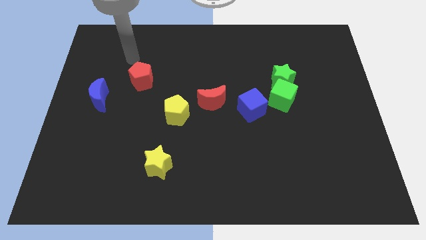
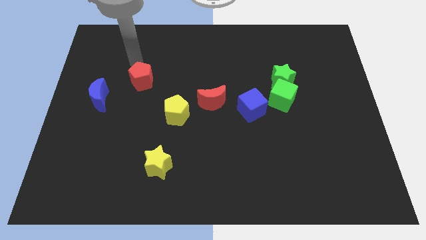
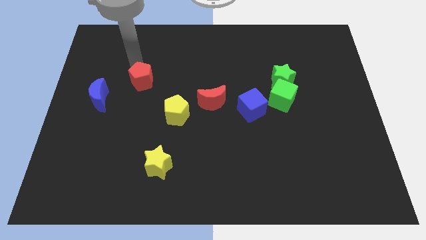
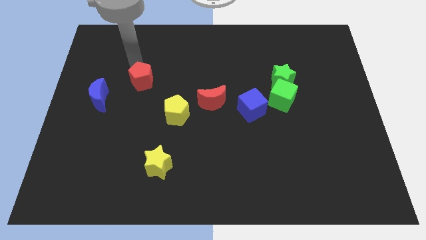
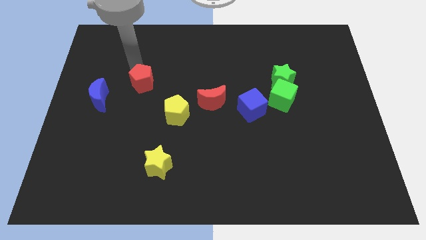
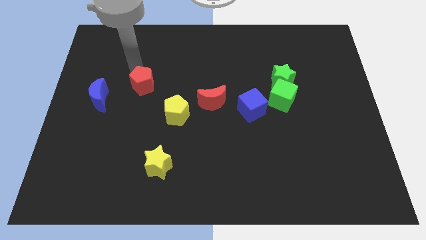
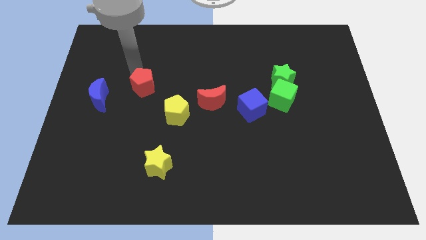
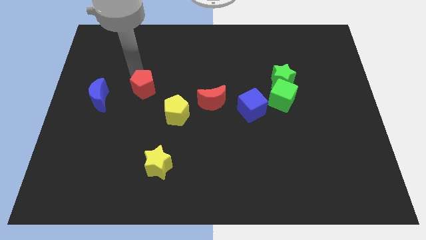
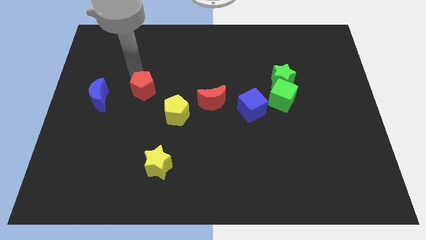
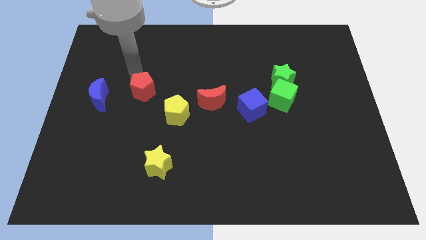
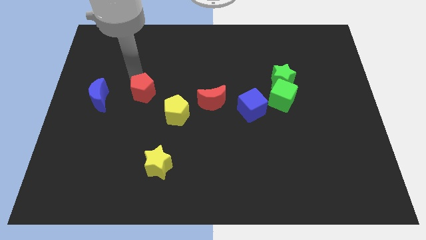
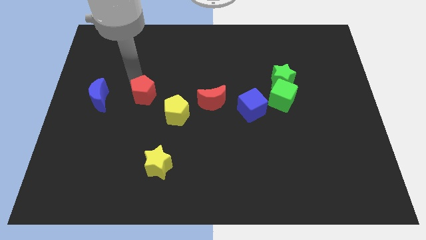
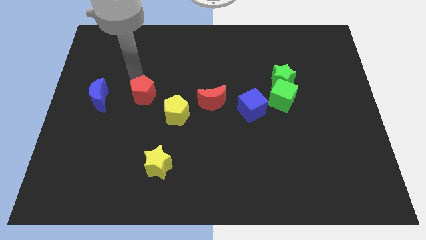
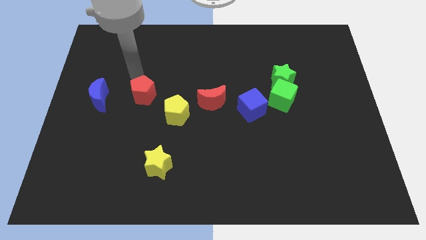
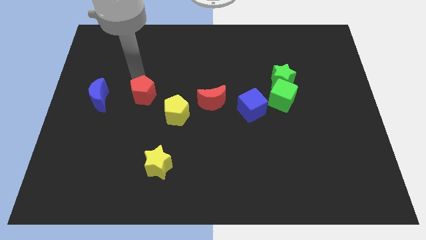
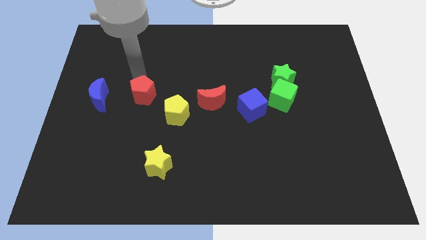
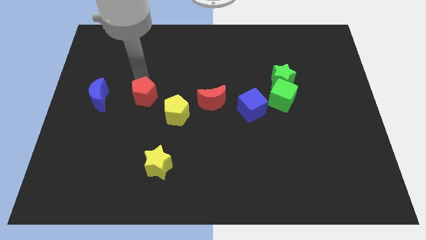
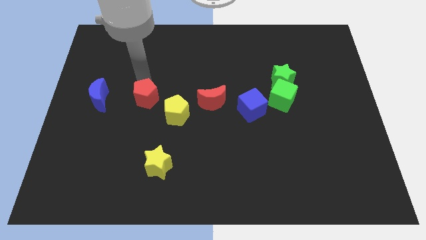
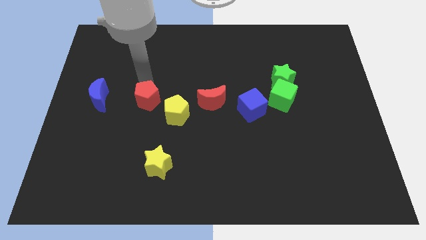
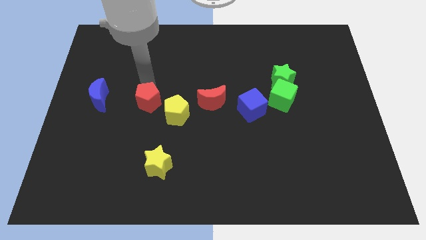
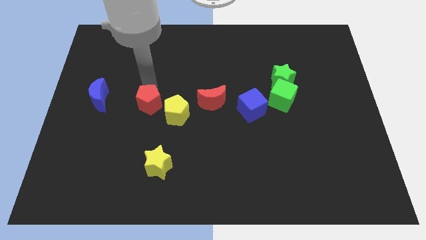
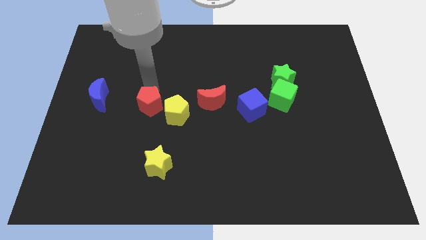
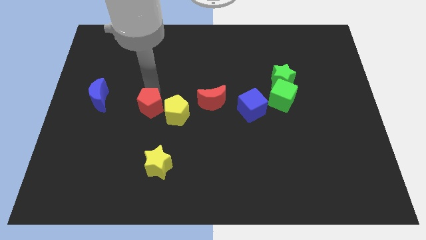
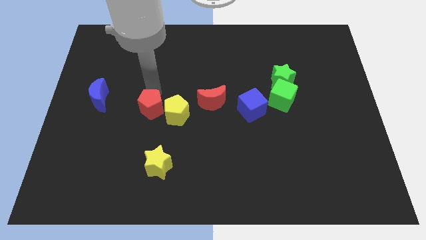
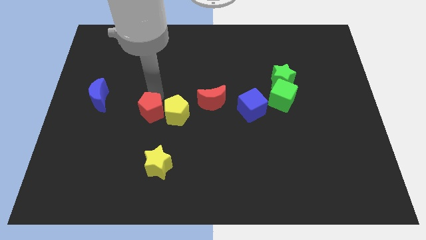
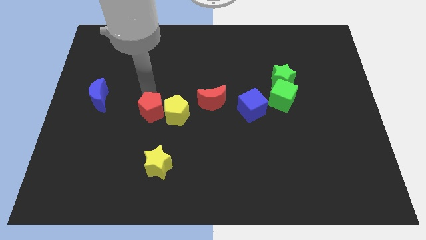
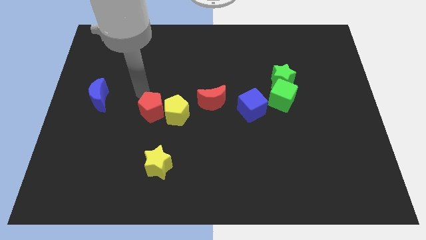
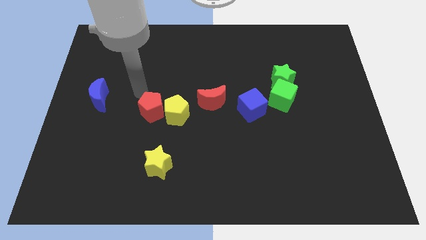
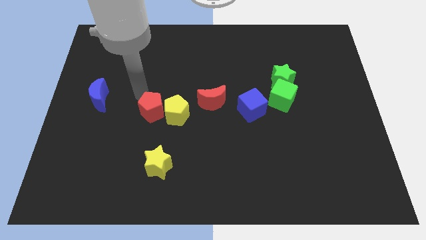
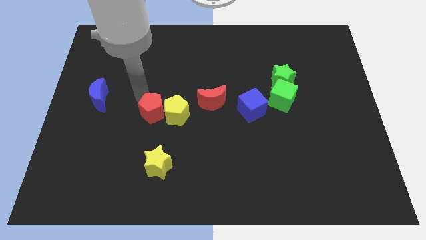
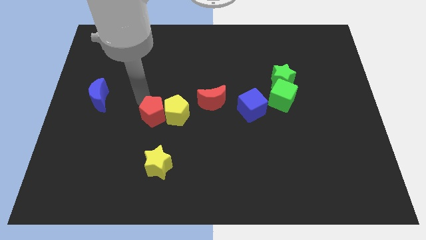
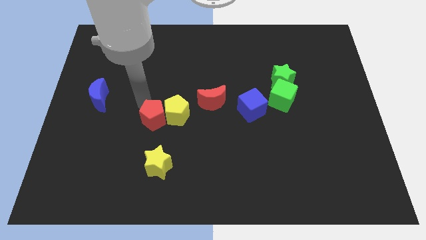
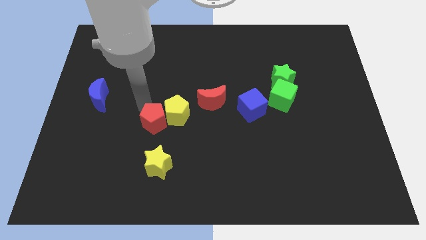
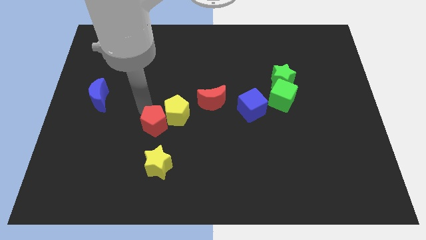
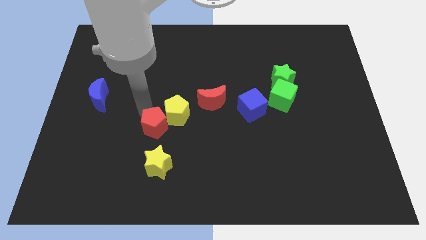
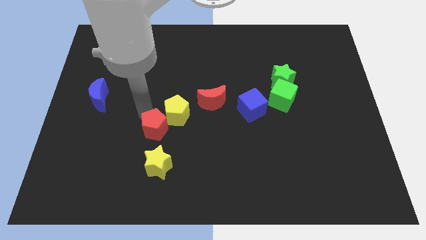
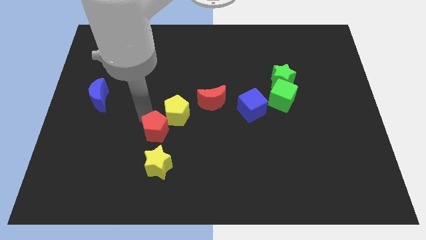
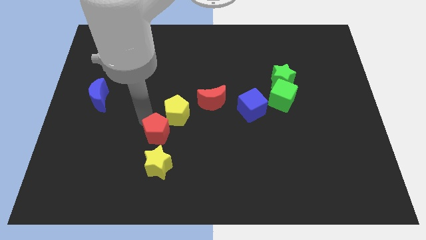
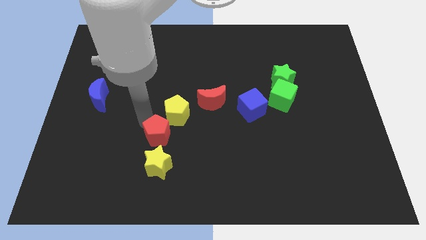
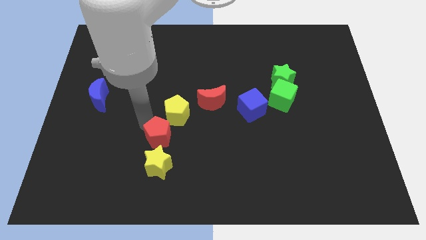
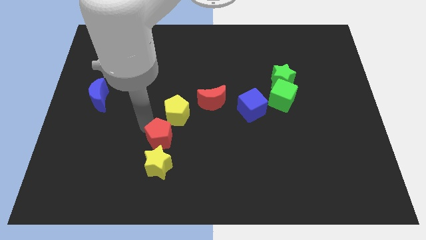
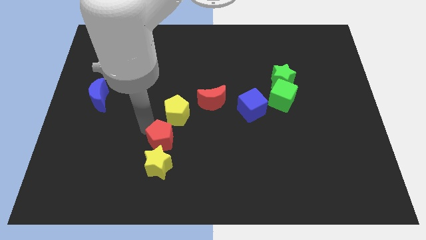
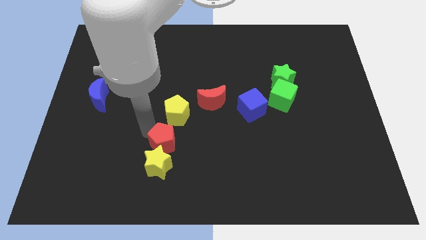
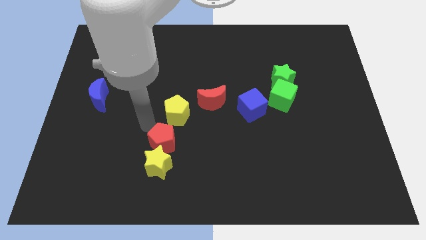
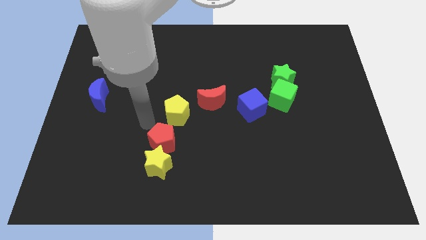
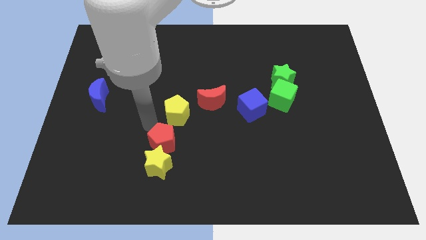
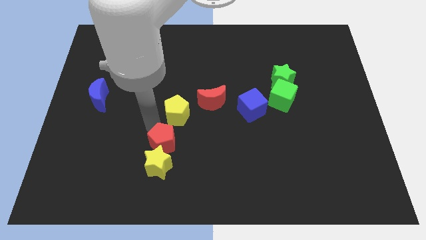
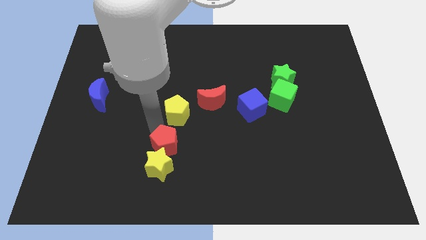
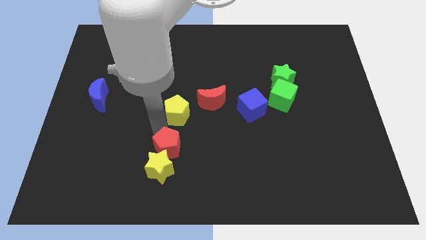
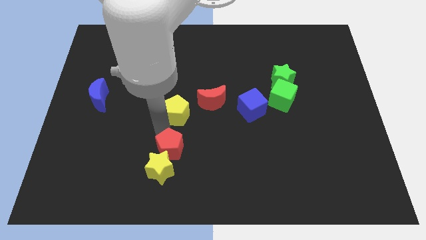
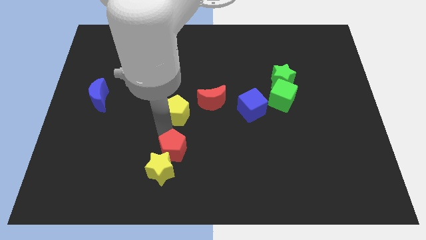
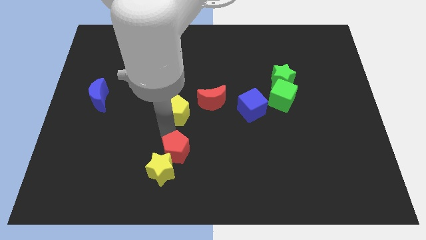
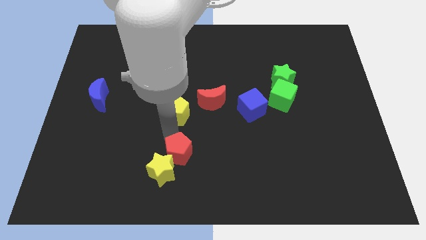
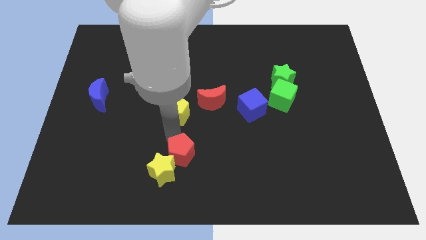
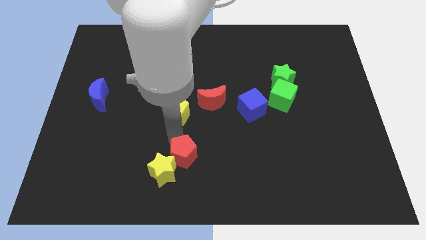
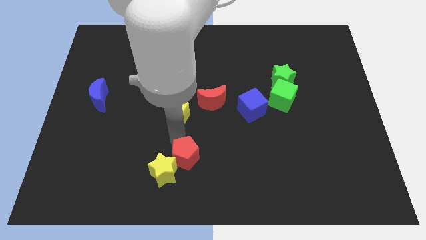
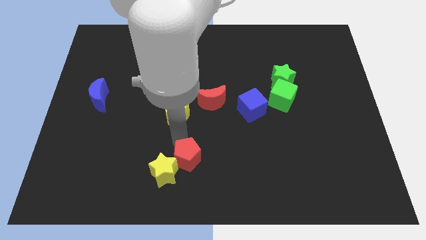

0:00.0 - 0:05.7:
put the red pentagon to the bottom side
